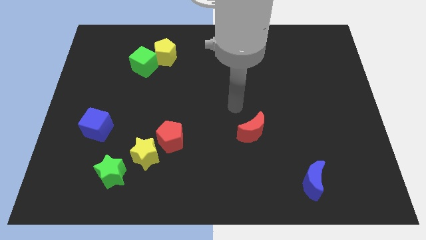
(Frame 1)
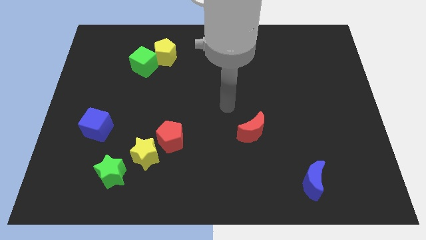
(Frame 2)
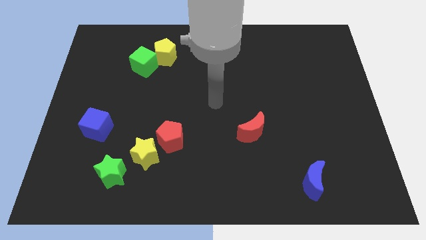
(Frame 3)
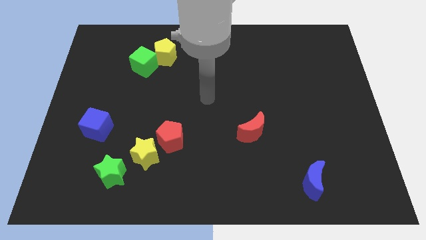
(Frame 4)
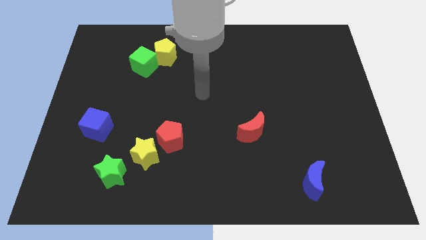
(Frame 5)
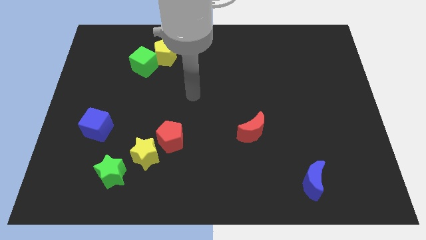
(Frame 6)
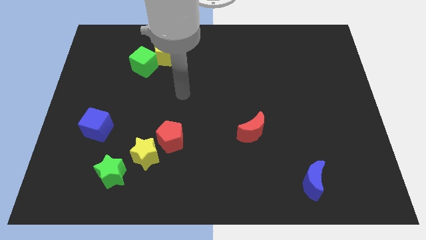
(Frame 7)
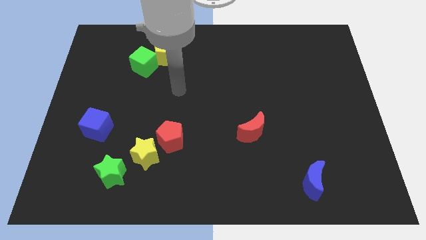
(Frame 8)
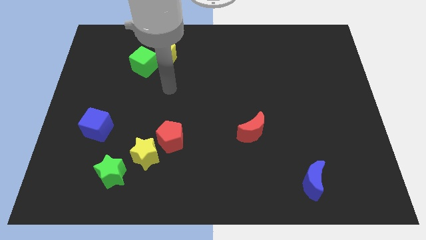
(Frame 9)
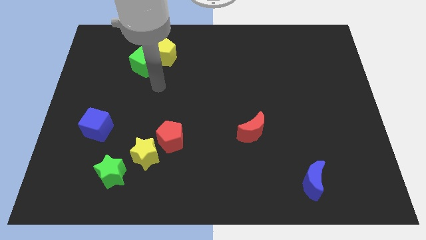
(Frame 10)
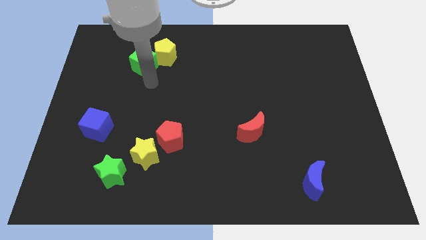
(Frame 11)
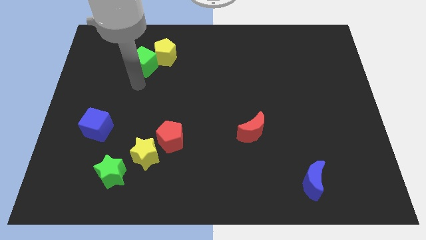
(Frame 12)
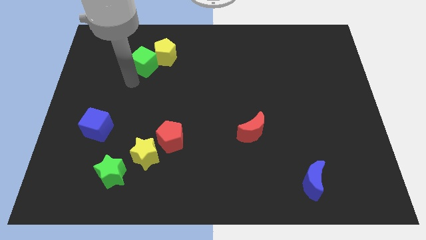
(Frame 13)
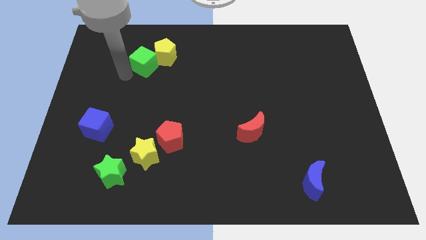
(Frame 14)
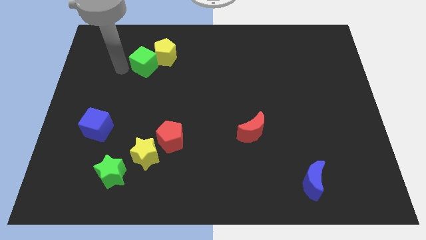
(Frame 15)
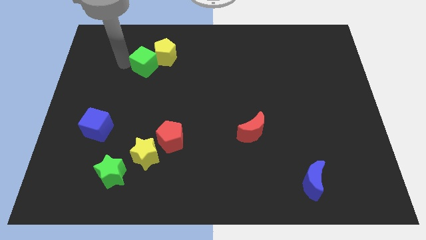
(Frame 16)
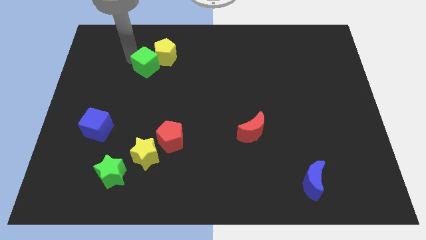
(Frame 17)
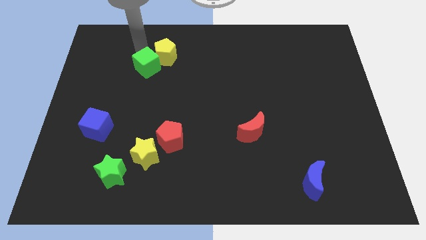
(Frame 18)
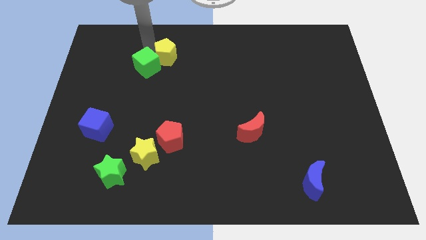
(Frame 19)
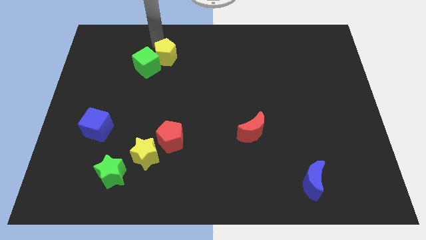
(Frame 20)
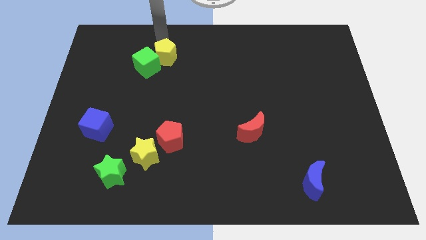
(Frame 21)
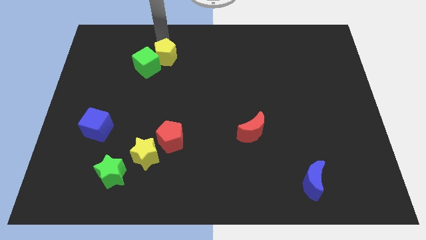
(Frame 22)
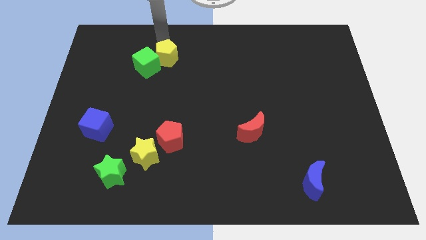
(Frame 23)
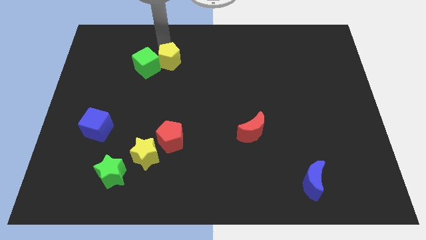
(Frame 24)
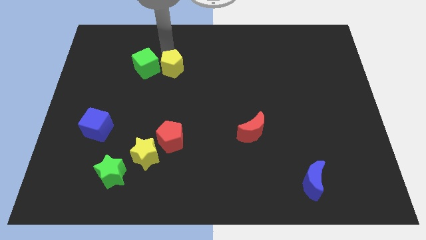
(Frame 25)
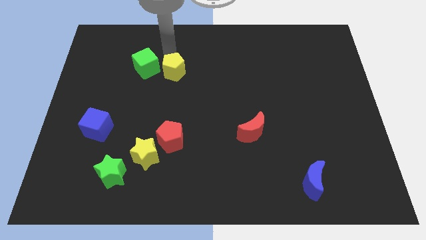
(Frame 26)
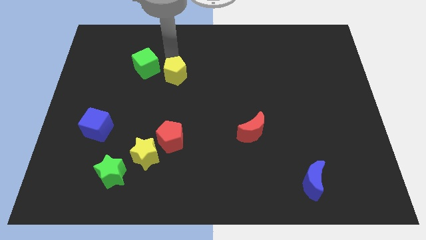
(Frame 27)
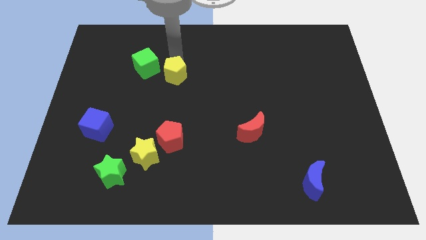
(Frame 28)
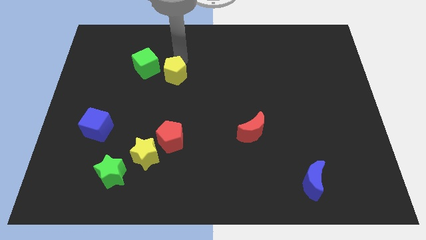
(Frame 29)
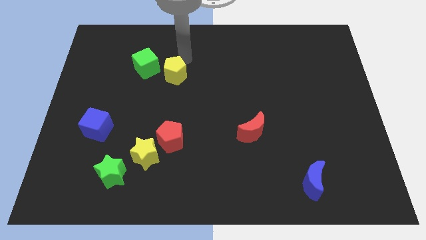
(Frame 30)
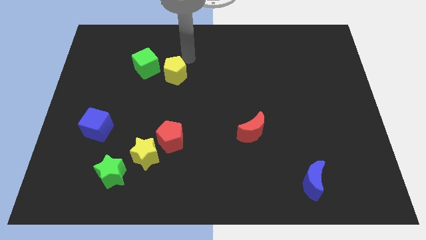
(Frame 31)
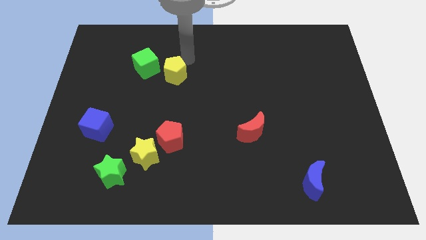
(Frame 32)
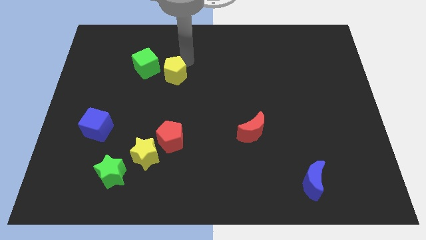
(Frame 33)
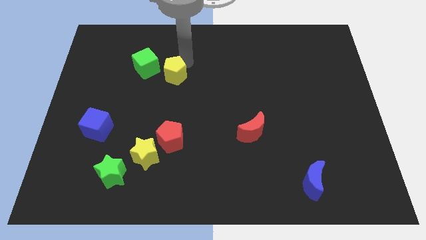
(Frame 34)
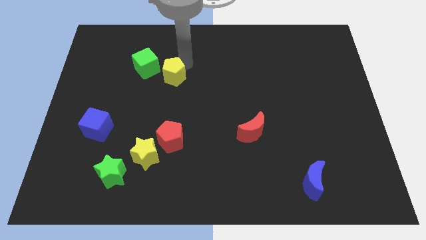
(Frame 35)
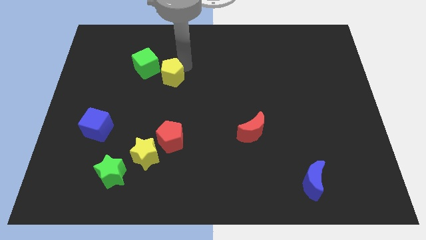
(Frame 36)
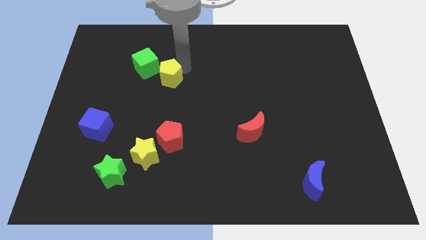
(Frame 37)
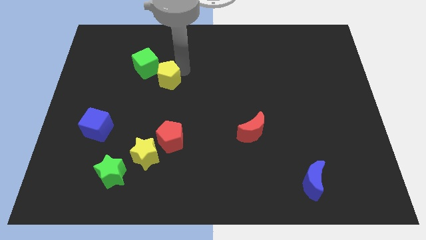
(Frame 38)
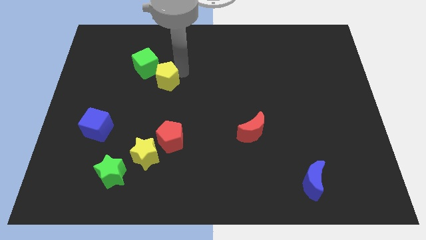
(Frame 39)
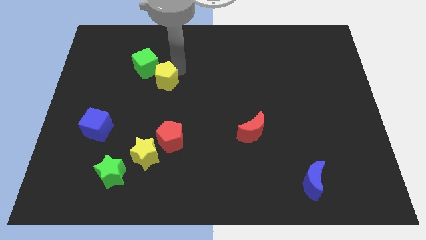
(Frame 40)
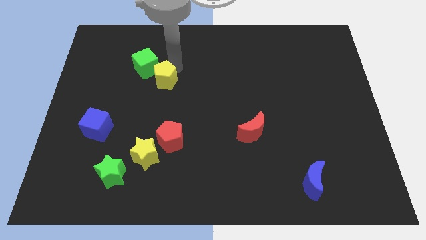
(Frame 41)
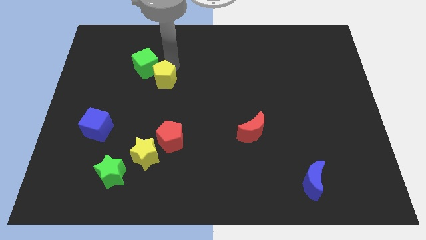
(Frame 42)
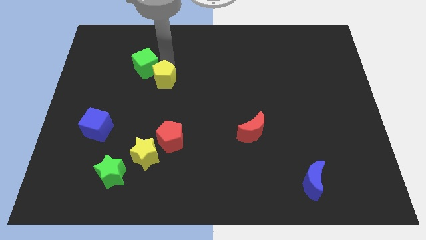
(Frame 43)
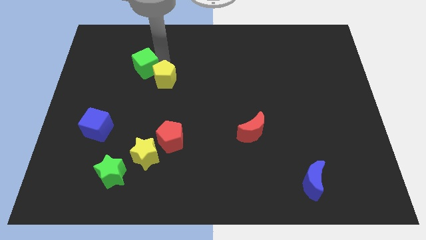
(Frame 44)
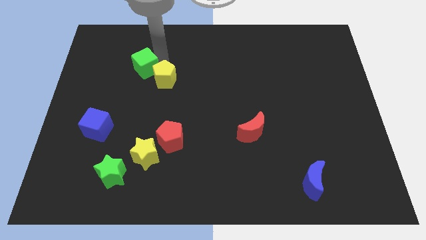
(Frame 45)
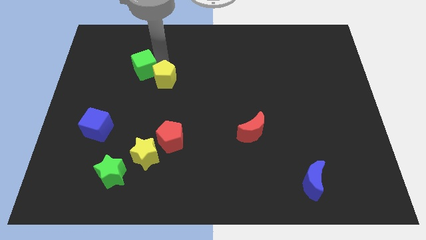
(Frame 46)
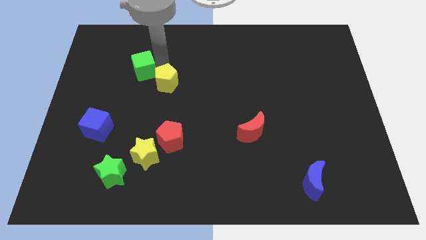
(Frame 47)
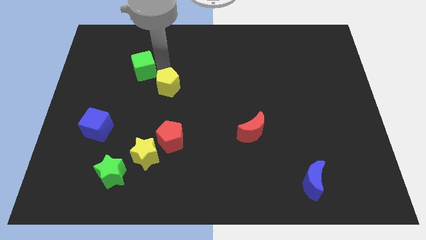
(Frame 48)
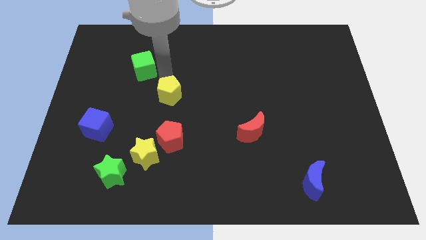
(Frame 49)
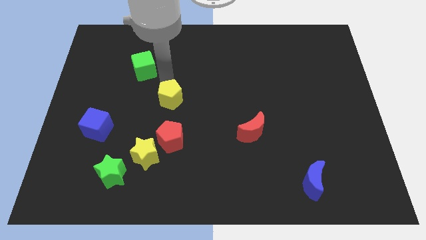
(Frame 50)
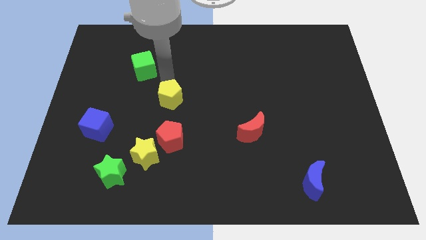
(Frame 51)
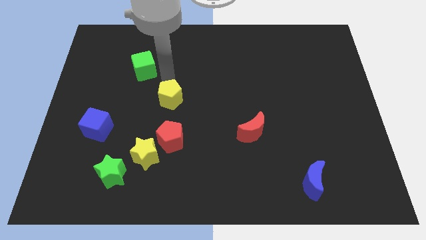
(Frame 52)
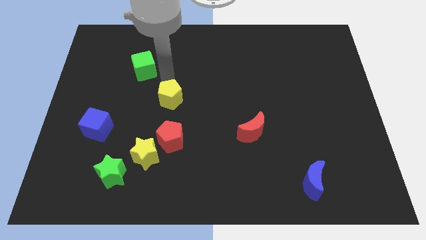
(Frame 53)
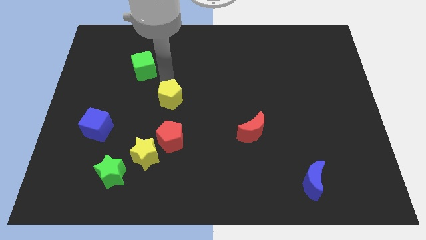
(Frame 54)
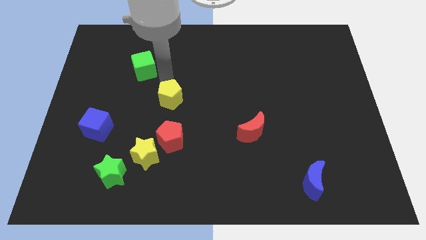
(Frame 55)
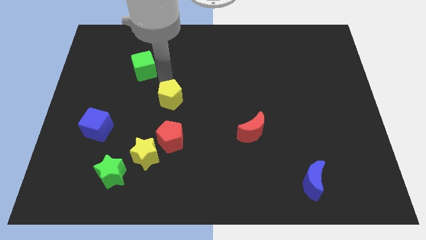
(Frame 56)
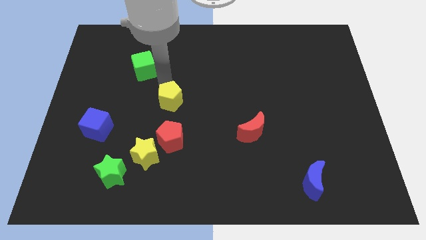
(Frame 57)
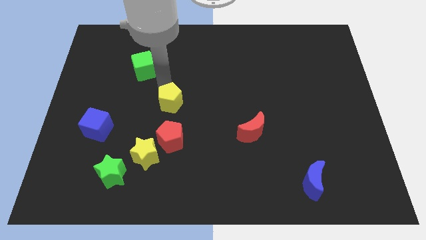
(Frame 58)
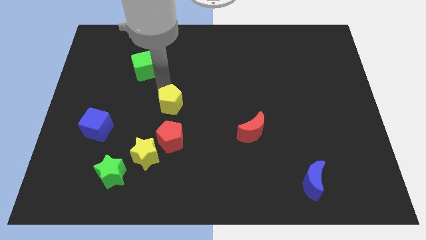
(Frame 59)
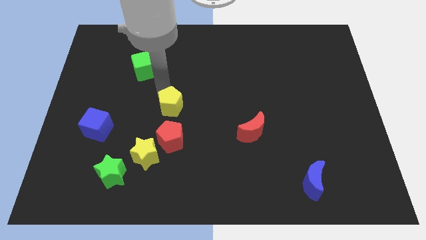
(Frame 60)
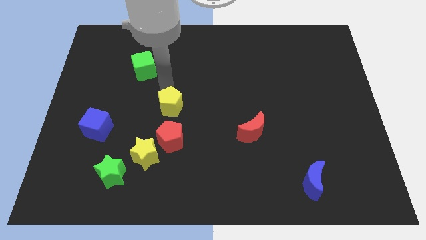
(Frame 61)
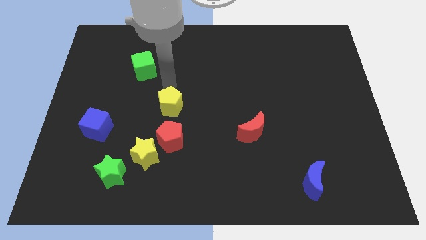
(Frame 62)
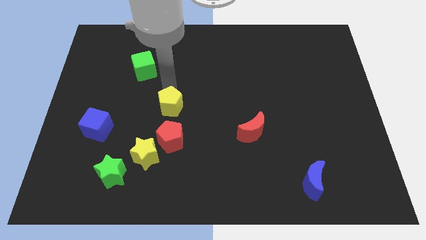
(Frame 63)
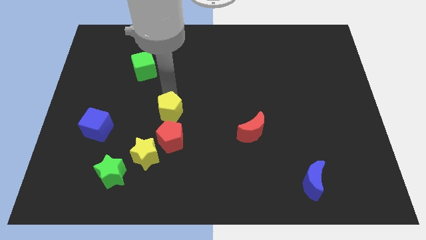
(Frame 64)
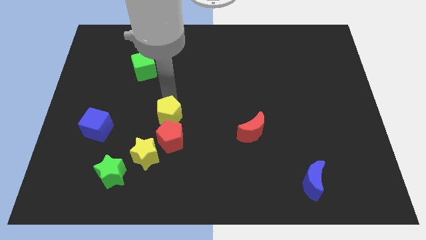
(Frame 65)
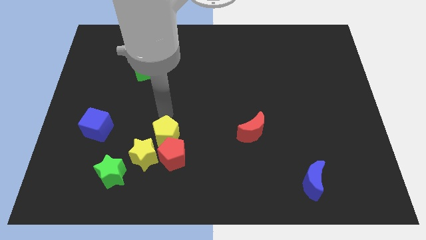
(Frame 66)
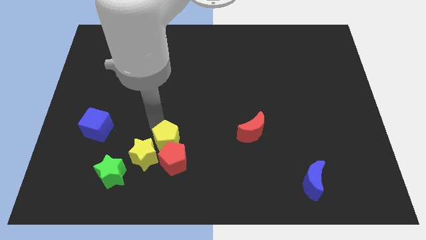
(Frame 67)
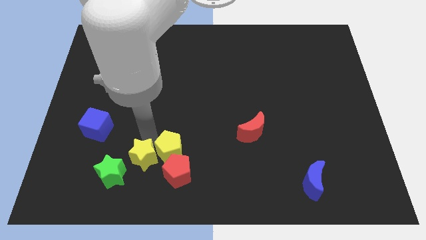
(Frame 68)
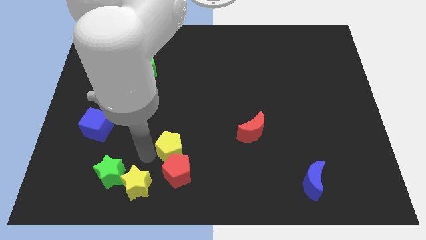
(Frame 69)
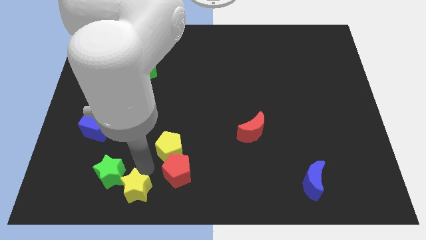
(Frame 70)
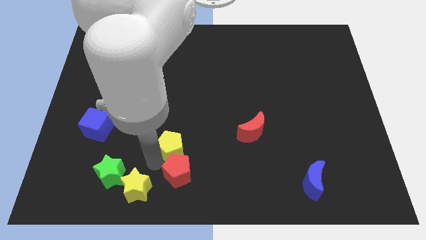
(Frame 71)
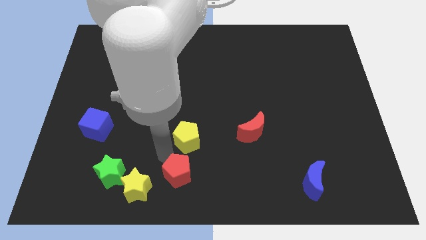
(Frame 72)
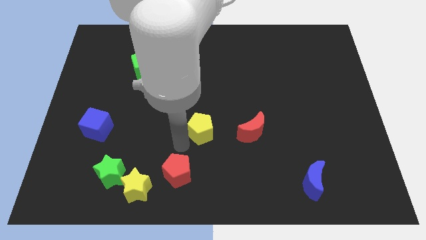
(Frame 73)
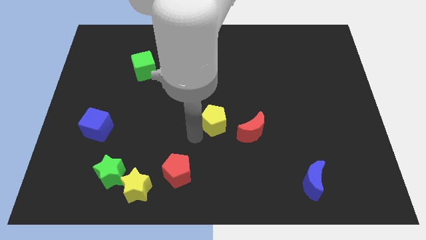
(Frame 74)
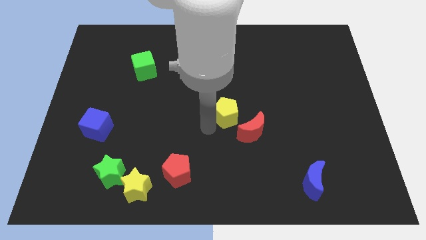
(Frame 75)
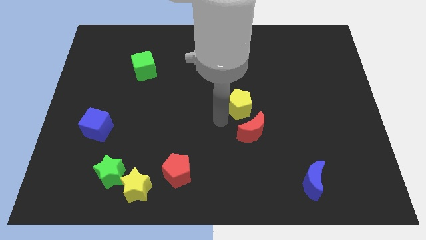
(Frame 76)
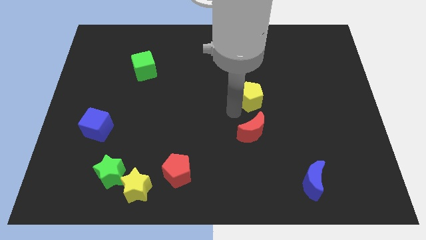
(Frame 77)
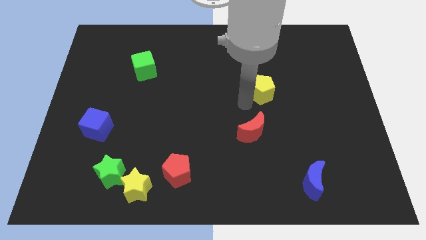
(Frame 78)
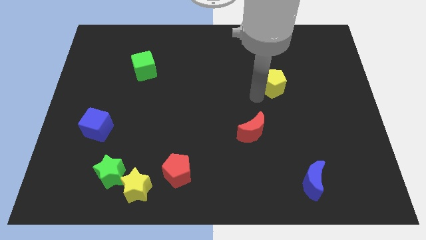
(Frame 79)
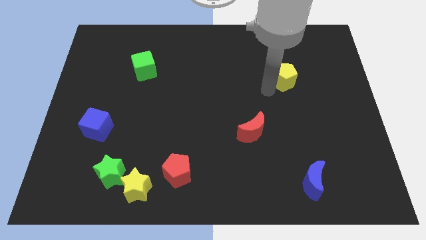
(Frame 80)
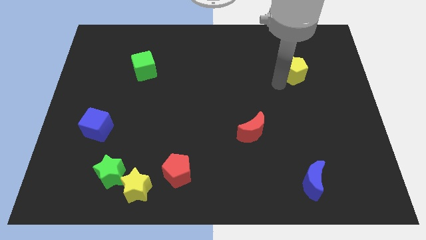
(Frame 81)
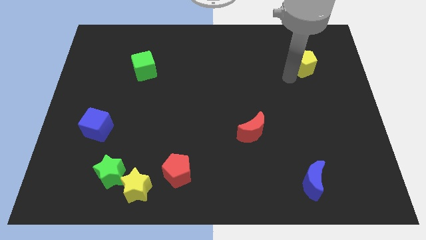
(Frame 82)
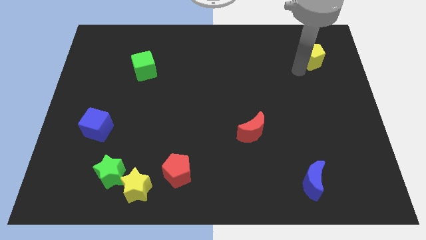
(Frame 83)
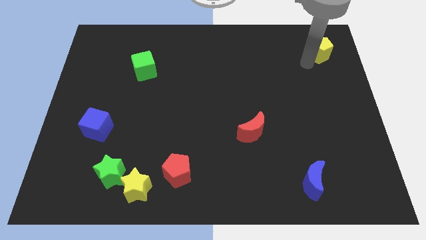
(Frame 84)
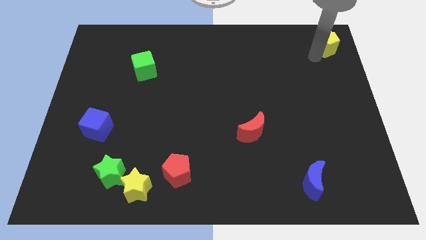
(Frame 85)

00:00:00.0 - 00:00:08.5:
put the yellow pentagon to the top right corner
